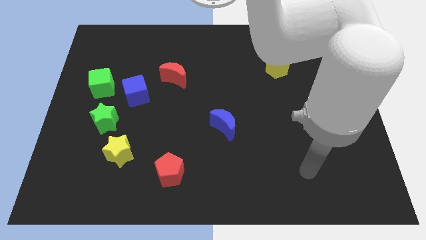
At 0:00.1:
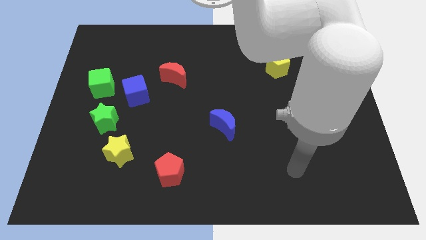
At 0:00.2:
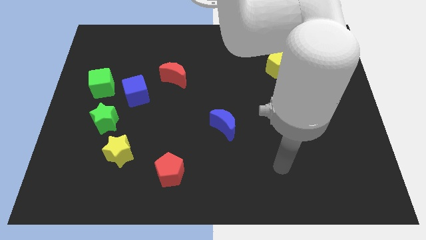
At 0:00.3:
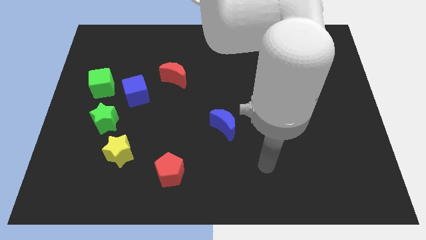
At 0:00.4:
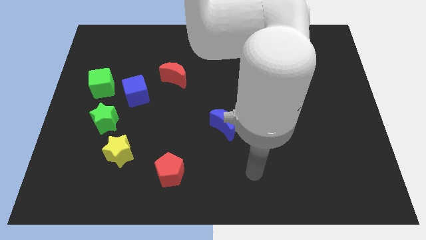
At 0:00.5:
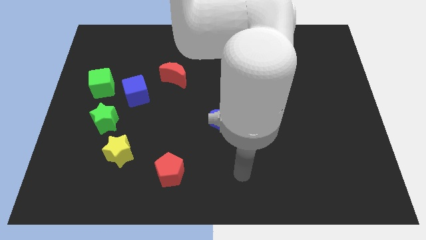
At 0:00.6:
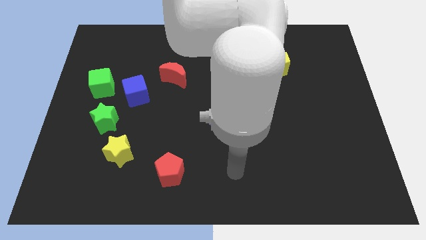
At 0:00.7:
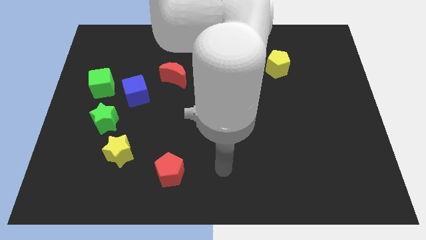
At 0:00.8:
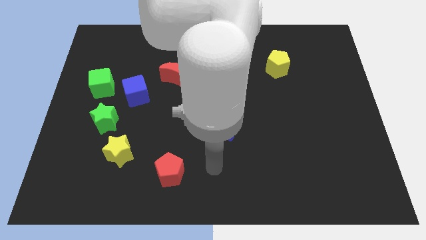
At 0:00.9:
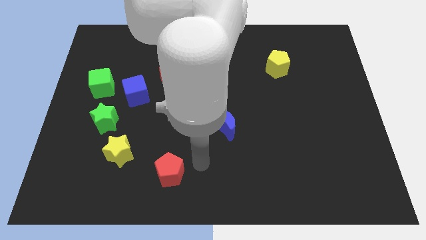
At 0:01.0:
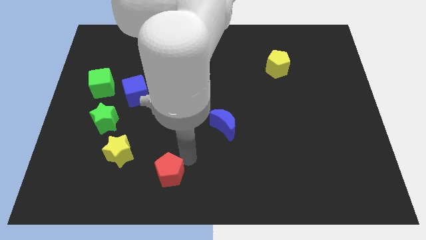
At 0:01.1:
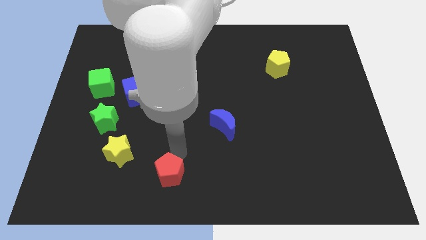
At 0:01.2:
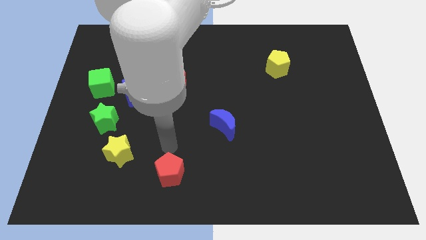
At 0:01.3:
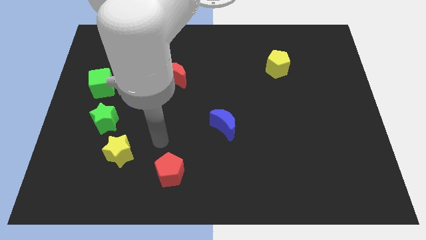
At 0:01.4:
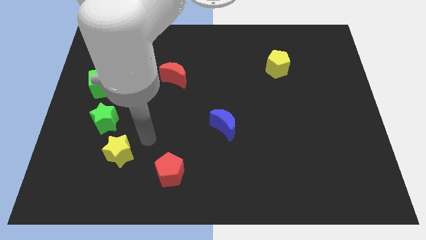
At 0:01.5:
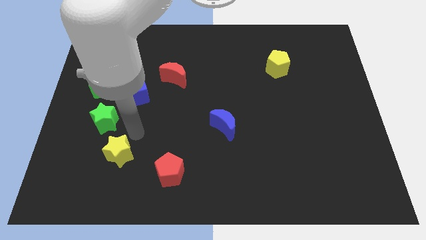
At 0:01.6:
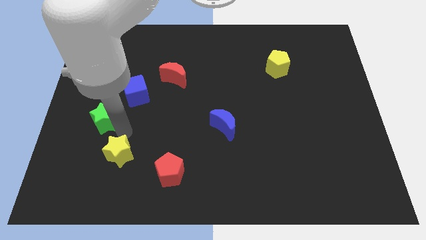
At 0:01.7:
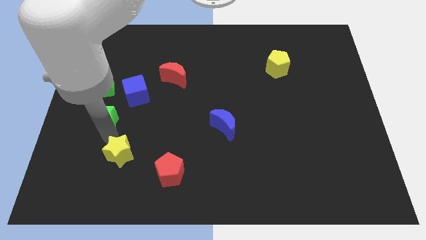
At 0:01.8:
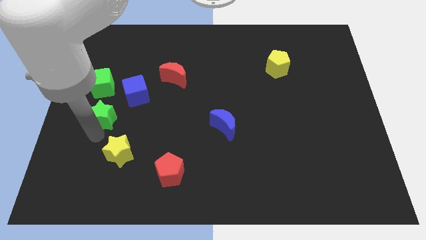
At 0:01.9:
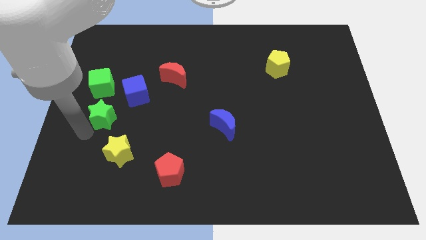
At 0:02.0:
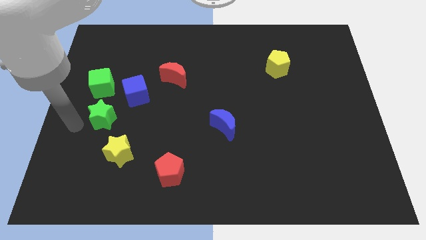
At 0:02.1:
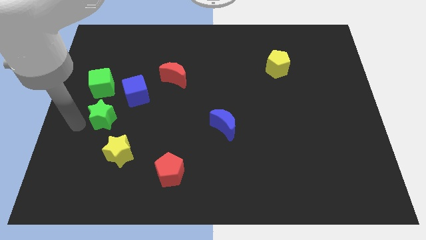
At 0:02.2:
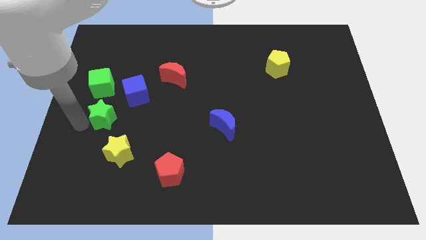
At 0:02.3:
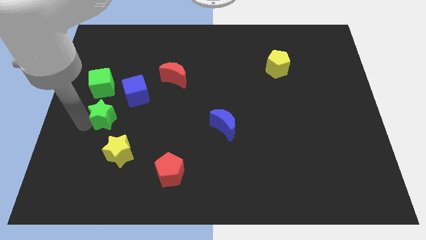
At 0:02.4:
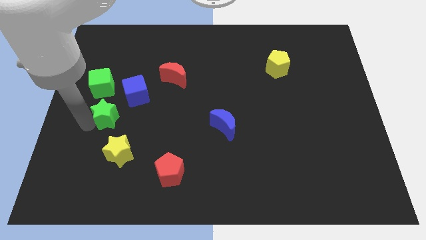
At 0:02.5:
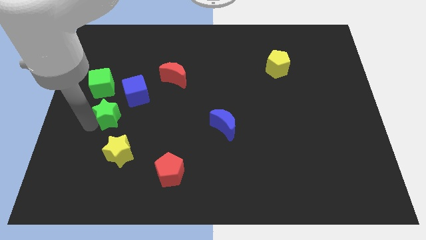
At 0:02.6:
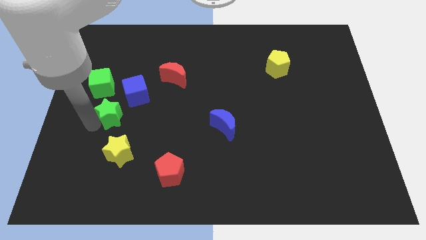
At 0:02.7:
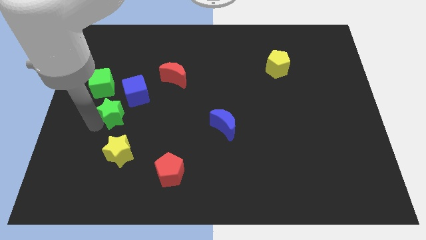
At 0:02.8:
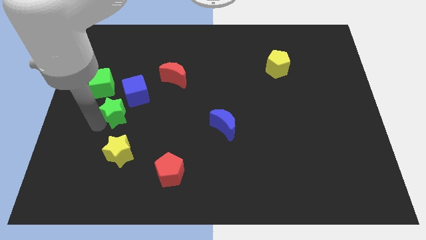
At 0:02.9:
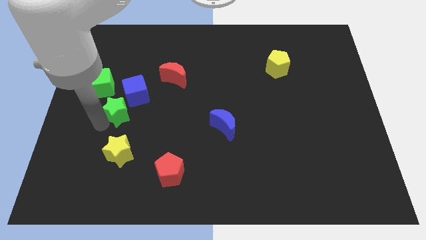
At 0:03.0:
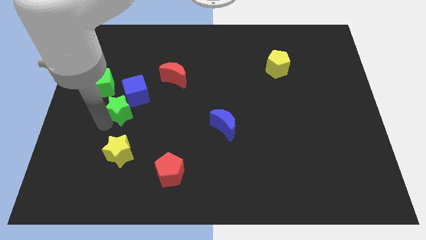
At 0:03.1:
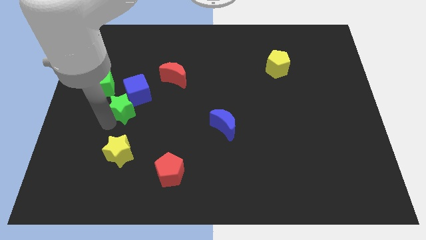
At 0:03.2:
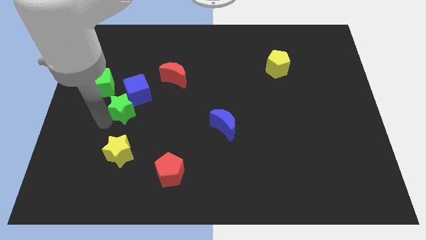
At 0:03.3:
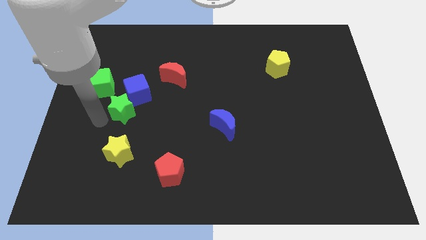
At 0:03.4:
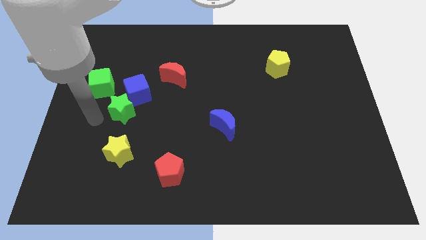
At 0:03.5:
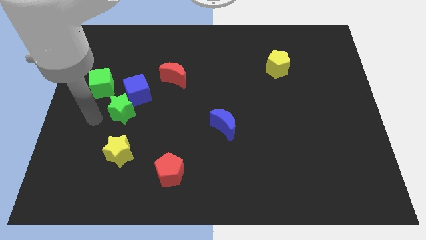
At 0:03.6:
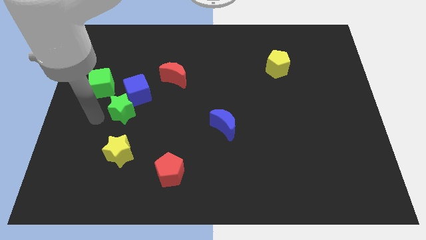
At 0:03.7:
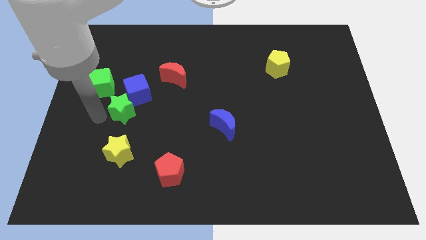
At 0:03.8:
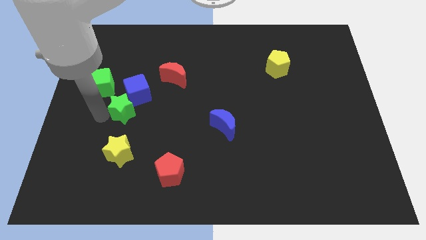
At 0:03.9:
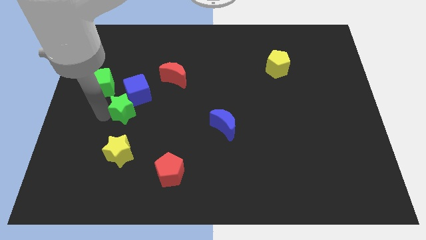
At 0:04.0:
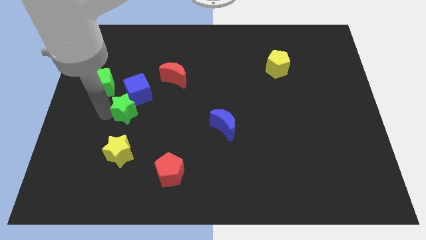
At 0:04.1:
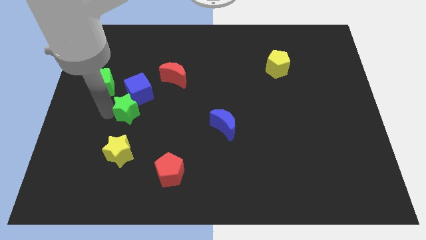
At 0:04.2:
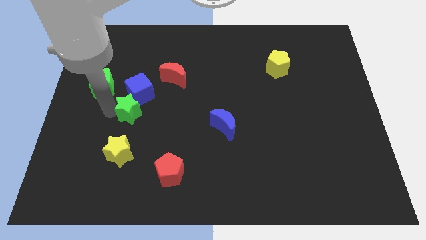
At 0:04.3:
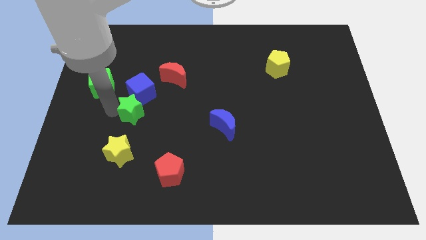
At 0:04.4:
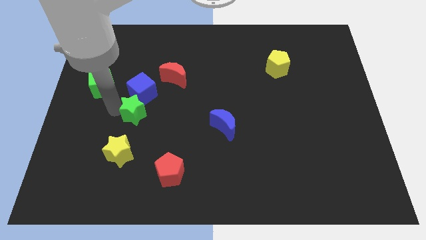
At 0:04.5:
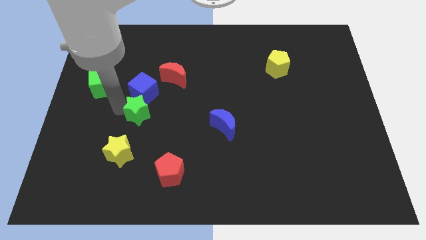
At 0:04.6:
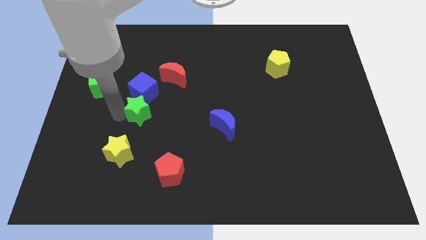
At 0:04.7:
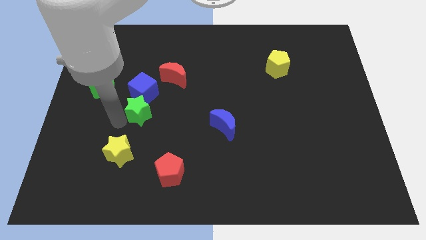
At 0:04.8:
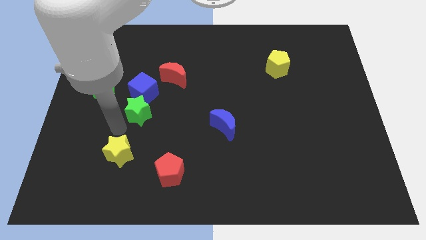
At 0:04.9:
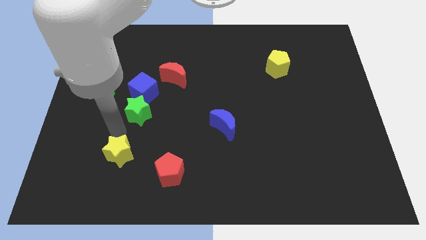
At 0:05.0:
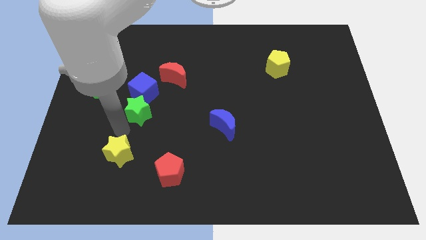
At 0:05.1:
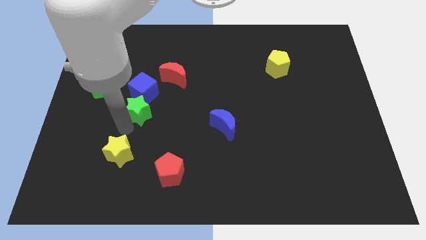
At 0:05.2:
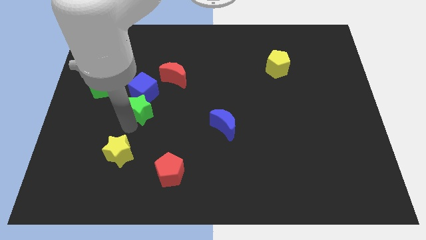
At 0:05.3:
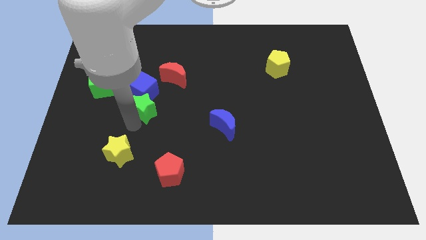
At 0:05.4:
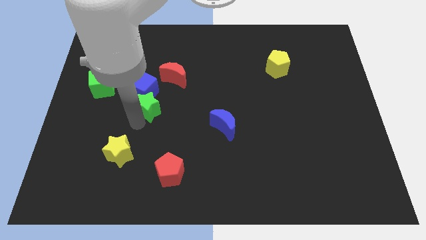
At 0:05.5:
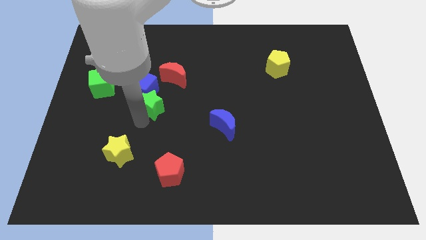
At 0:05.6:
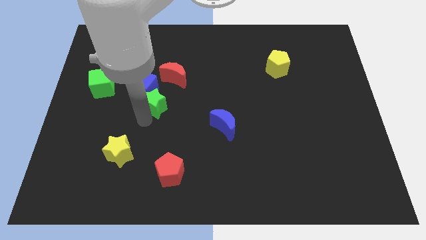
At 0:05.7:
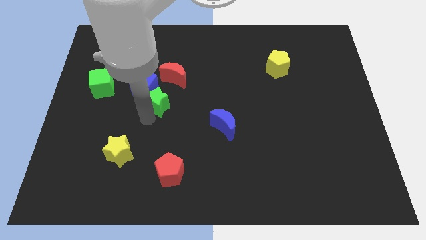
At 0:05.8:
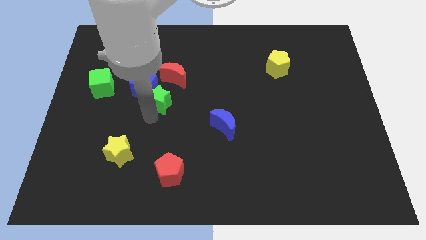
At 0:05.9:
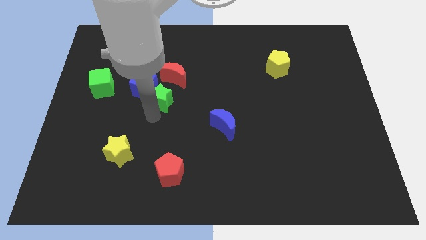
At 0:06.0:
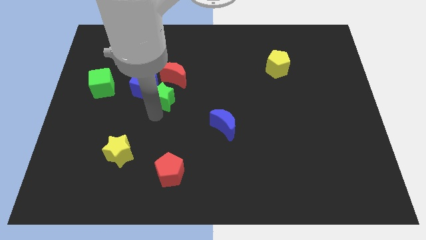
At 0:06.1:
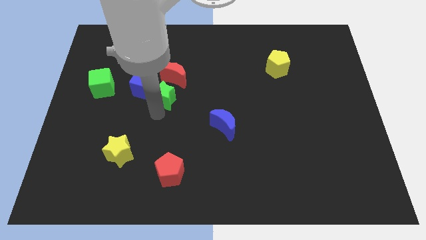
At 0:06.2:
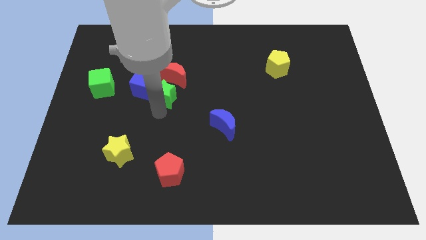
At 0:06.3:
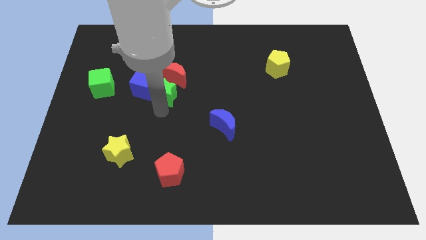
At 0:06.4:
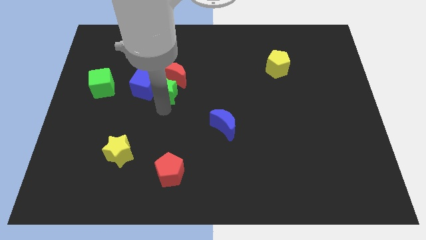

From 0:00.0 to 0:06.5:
slide the green star next to the red moon
